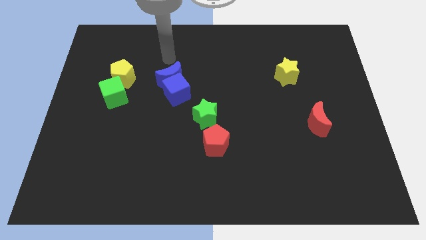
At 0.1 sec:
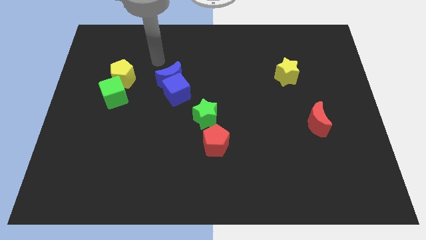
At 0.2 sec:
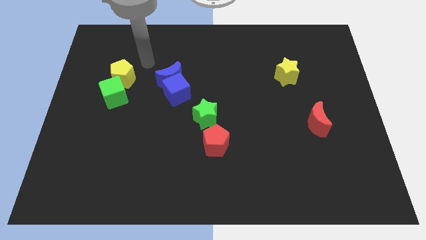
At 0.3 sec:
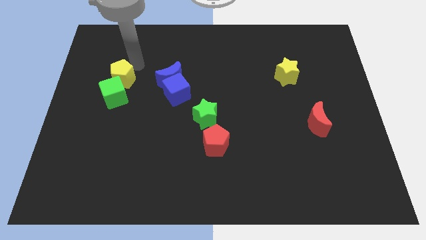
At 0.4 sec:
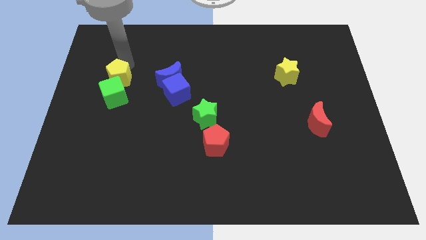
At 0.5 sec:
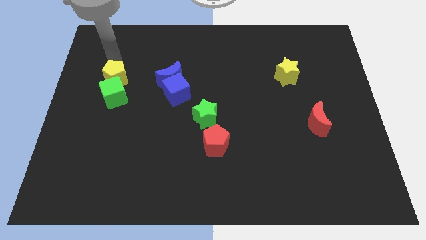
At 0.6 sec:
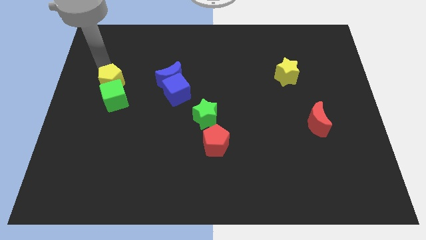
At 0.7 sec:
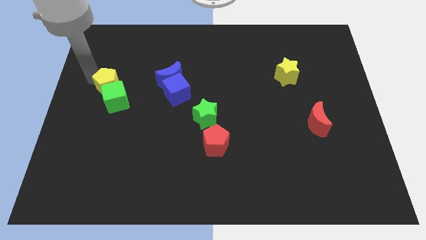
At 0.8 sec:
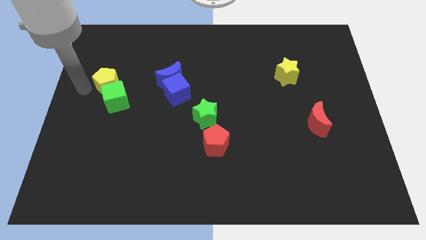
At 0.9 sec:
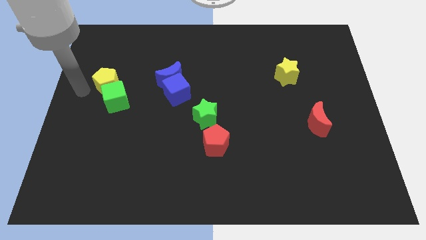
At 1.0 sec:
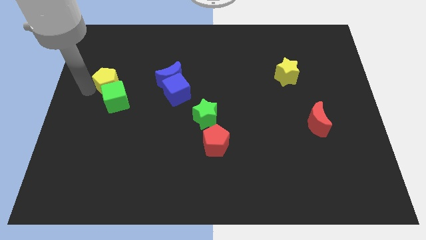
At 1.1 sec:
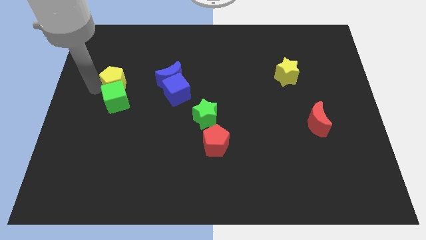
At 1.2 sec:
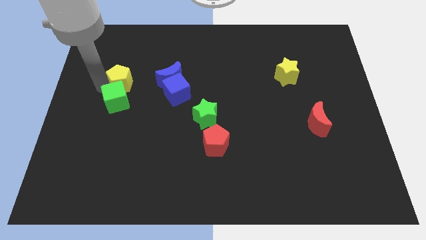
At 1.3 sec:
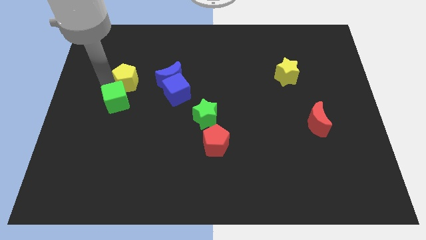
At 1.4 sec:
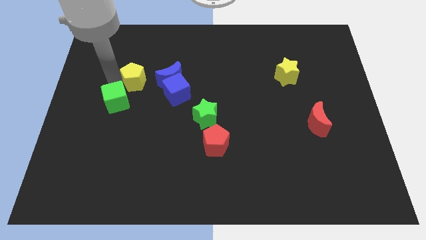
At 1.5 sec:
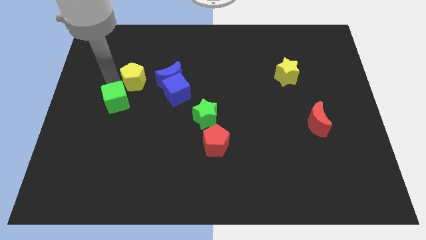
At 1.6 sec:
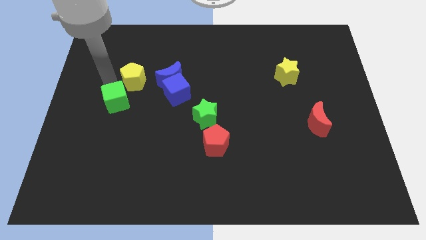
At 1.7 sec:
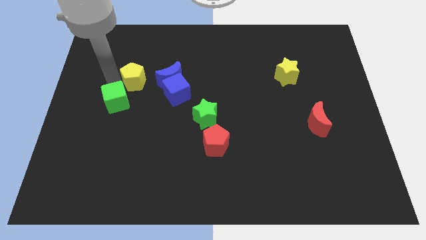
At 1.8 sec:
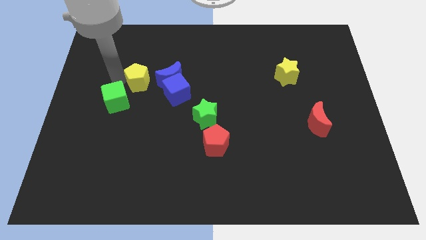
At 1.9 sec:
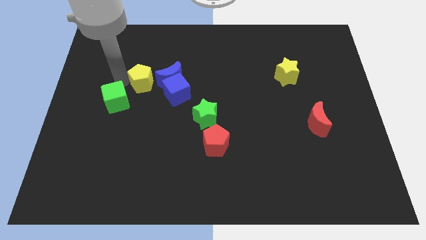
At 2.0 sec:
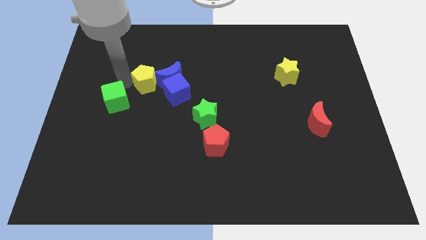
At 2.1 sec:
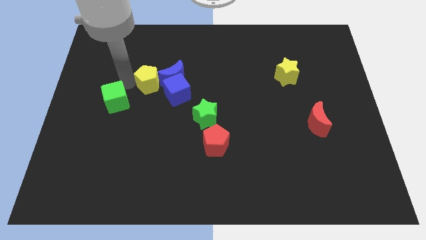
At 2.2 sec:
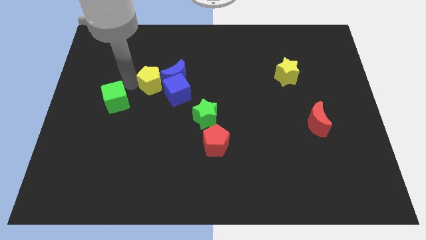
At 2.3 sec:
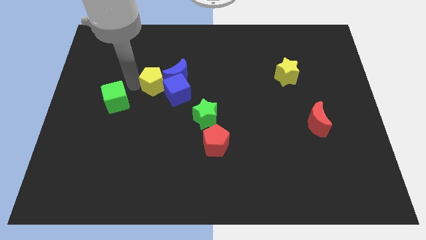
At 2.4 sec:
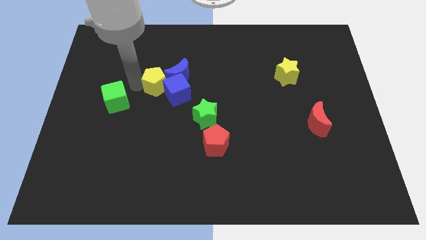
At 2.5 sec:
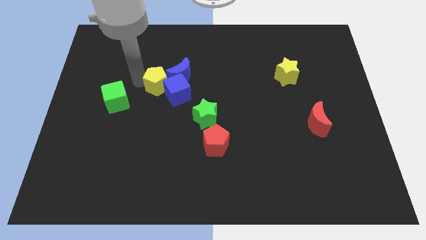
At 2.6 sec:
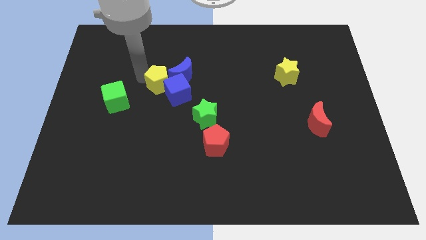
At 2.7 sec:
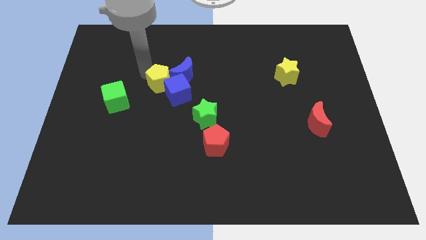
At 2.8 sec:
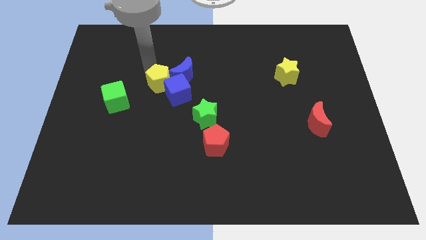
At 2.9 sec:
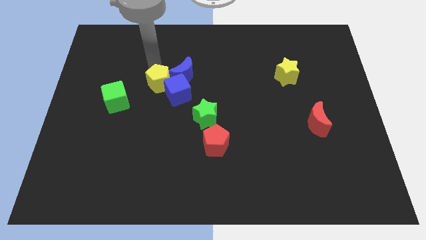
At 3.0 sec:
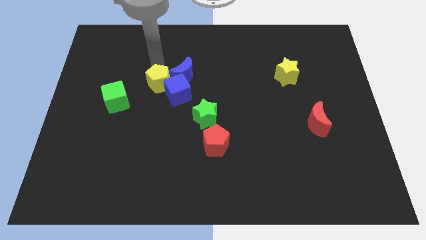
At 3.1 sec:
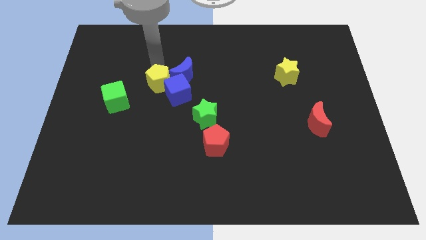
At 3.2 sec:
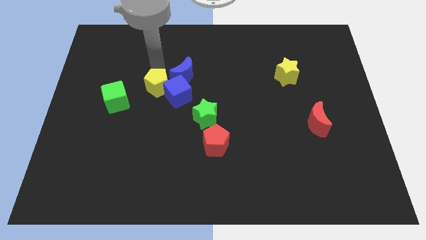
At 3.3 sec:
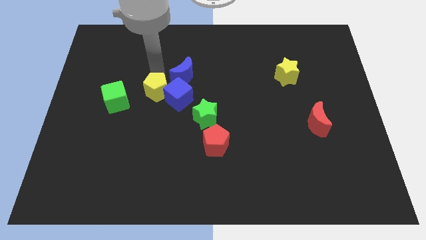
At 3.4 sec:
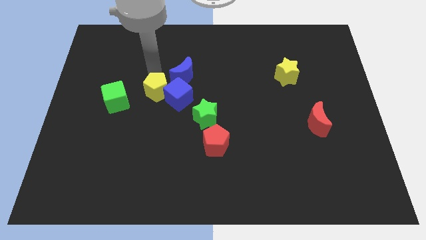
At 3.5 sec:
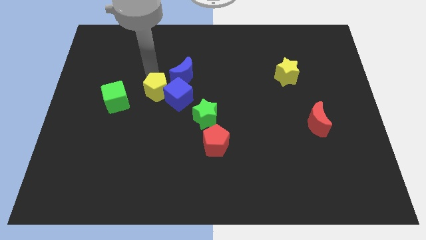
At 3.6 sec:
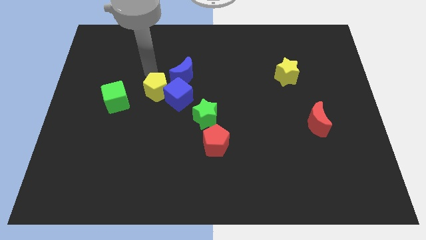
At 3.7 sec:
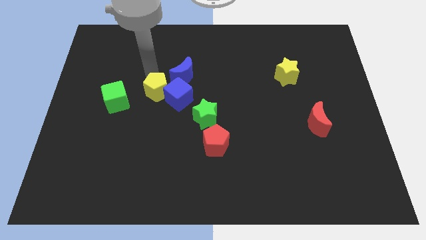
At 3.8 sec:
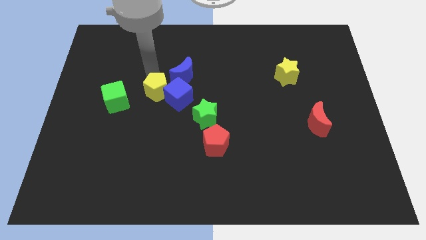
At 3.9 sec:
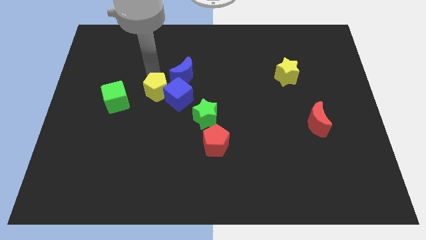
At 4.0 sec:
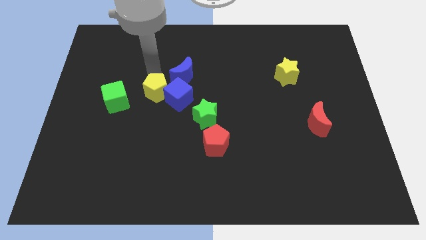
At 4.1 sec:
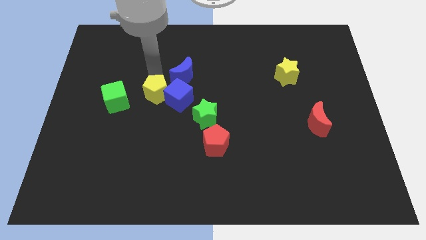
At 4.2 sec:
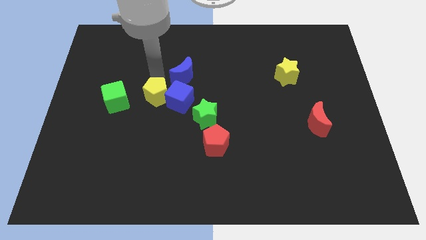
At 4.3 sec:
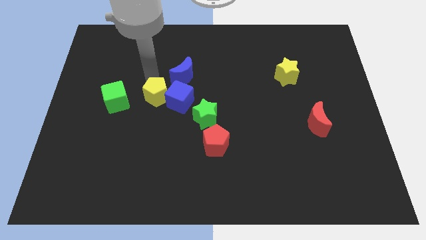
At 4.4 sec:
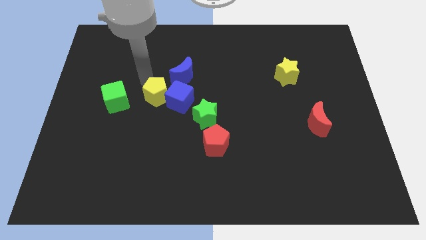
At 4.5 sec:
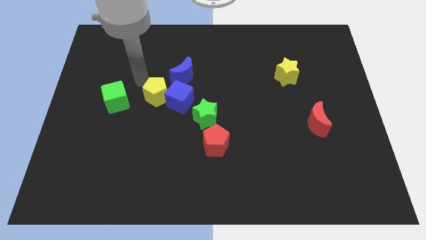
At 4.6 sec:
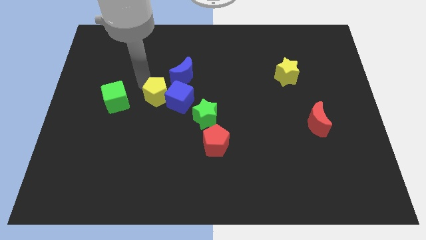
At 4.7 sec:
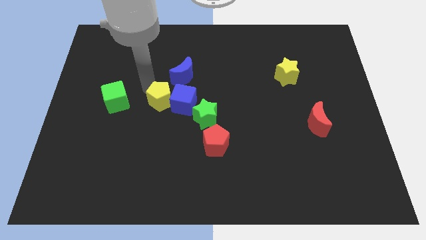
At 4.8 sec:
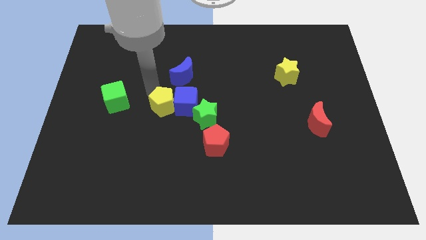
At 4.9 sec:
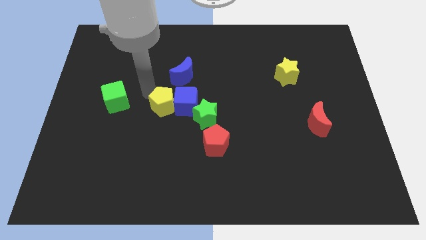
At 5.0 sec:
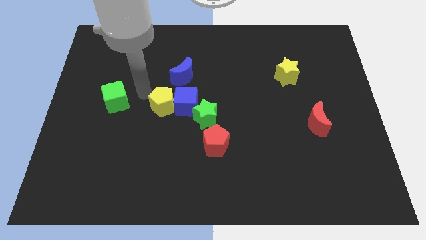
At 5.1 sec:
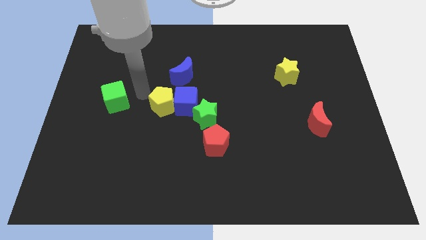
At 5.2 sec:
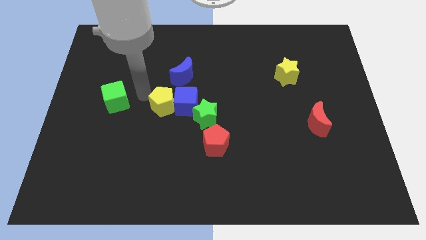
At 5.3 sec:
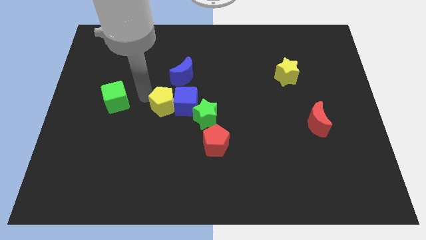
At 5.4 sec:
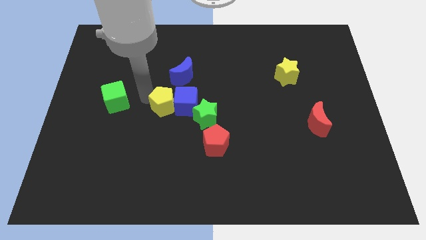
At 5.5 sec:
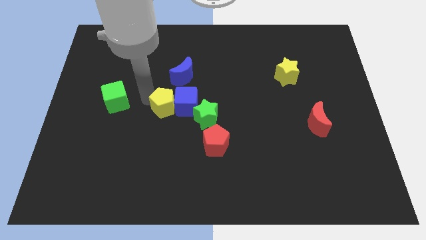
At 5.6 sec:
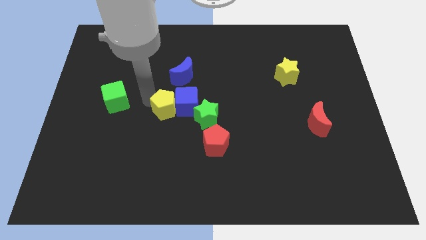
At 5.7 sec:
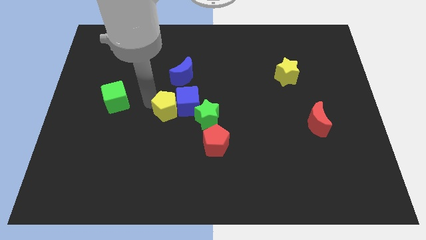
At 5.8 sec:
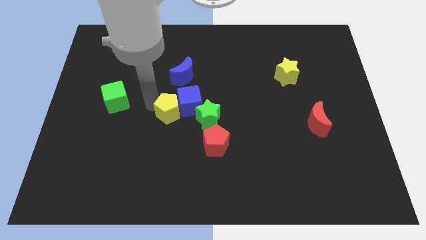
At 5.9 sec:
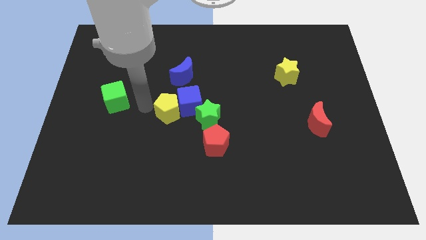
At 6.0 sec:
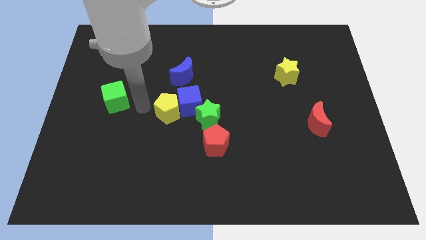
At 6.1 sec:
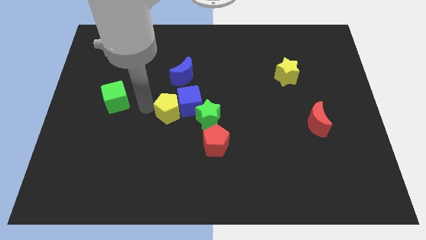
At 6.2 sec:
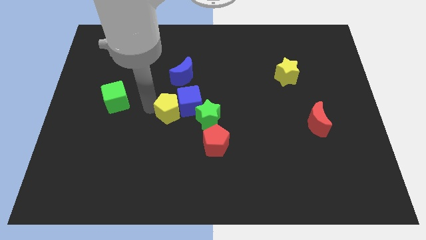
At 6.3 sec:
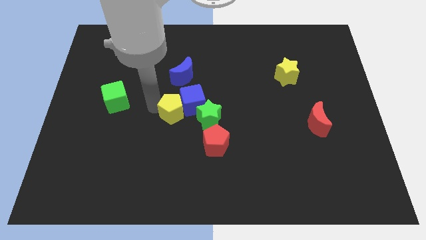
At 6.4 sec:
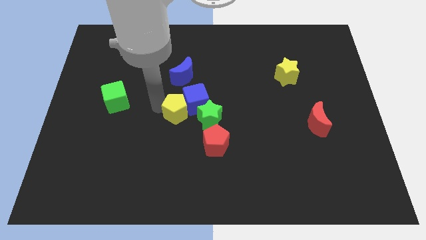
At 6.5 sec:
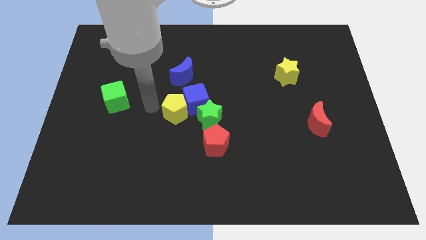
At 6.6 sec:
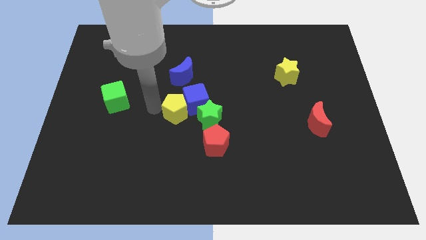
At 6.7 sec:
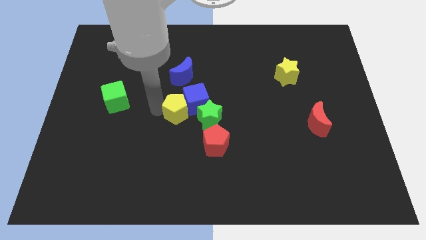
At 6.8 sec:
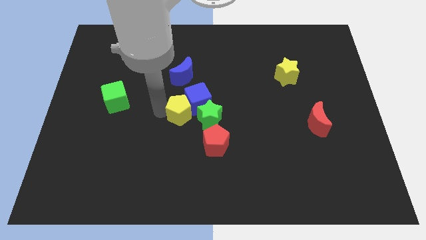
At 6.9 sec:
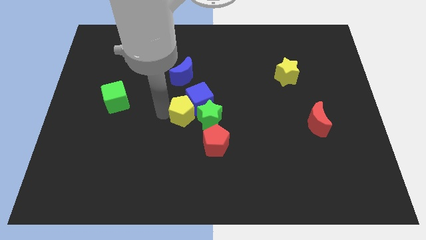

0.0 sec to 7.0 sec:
slide the yellow pentagon next to the green star
